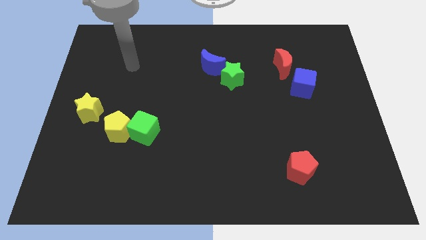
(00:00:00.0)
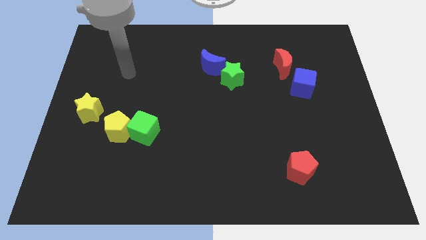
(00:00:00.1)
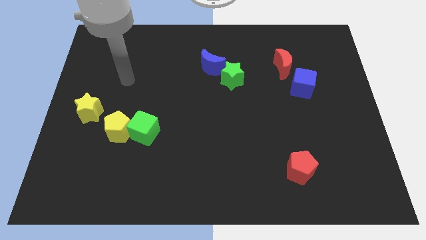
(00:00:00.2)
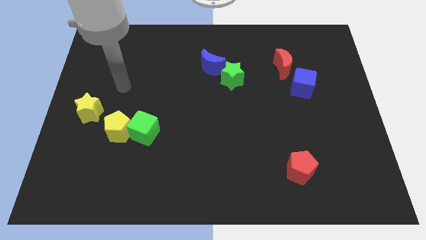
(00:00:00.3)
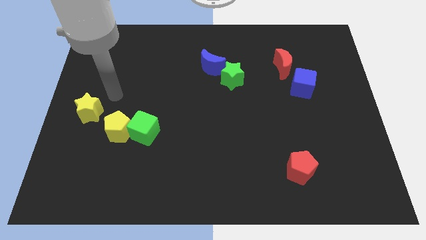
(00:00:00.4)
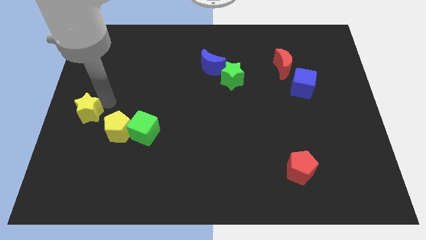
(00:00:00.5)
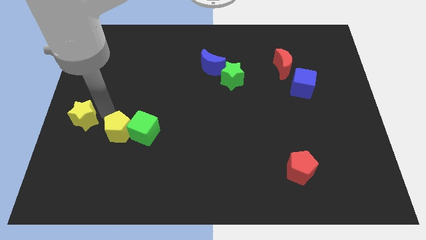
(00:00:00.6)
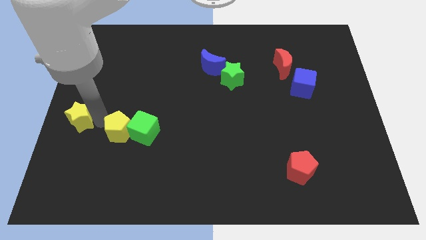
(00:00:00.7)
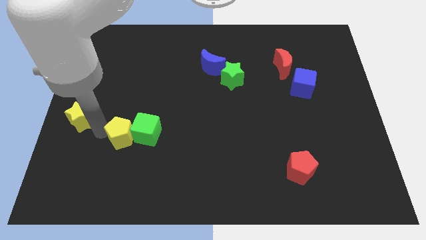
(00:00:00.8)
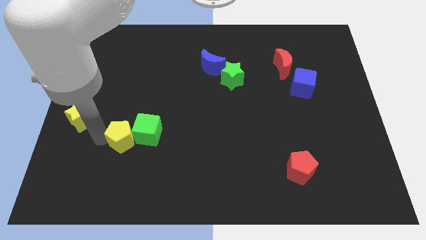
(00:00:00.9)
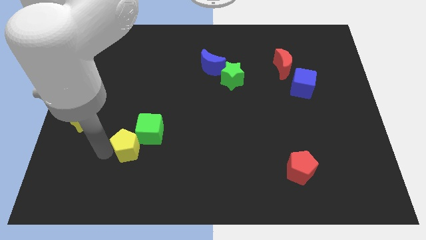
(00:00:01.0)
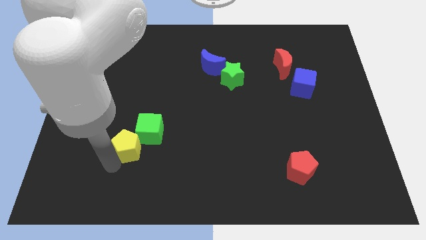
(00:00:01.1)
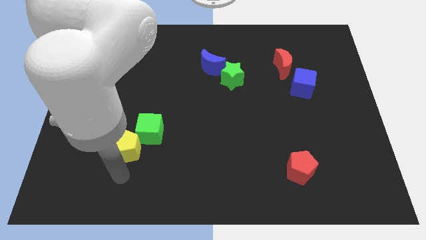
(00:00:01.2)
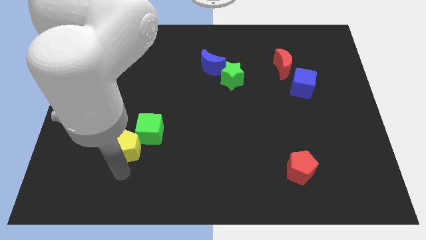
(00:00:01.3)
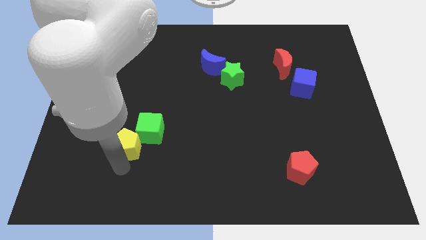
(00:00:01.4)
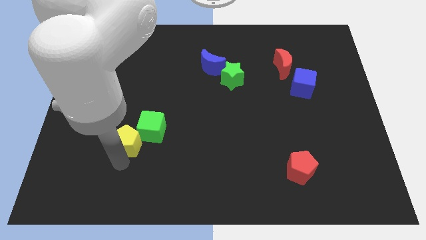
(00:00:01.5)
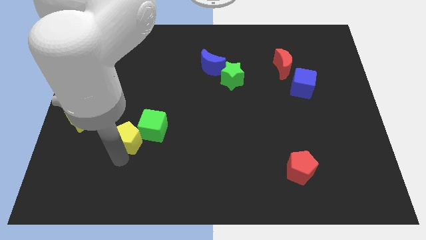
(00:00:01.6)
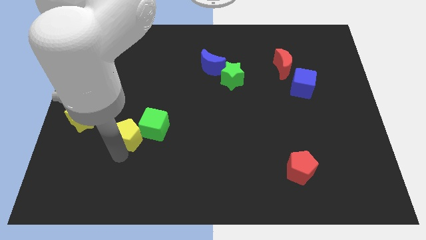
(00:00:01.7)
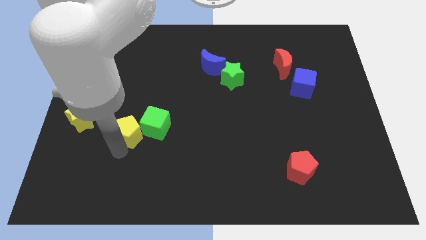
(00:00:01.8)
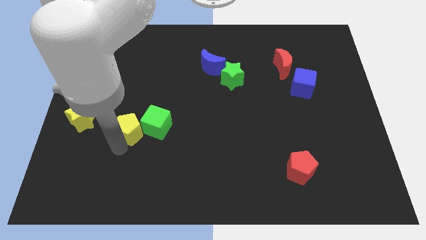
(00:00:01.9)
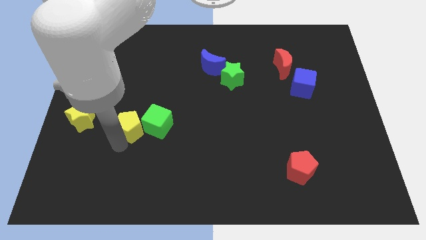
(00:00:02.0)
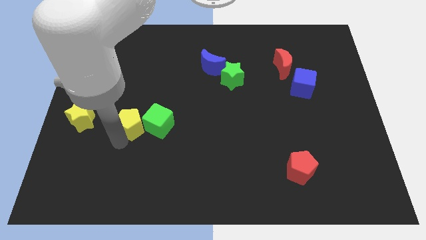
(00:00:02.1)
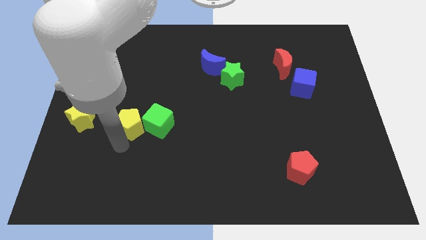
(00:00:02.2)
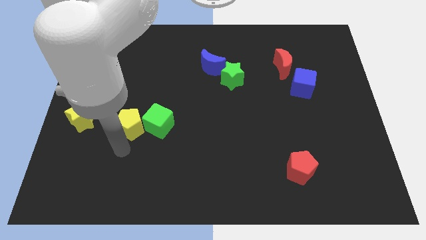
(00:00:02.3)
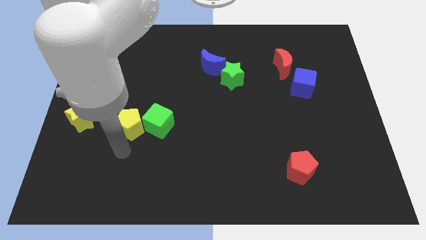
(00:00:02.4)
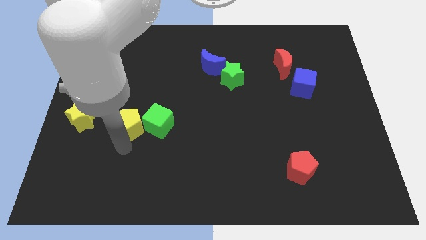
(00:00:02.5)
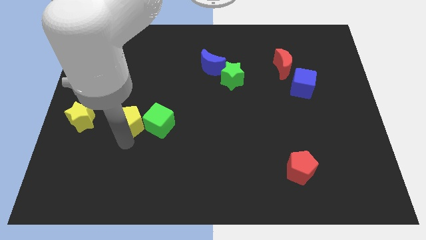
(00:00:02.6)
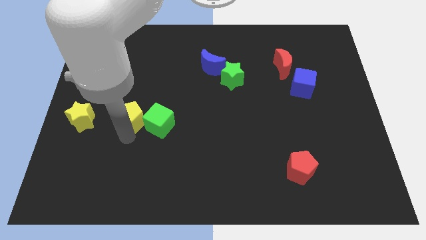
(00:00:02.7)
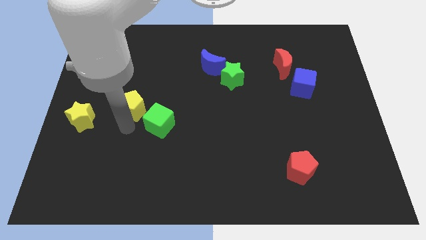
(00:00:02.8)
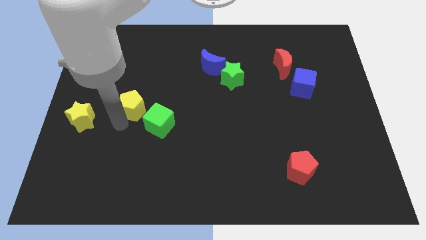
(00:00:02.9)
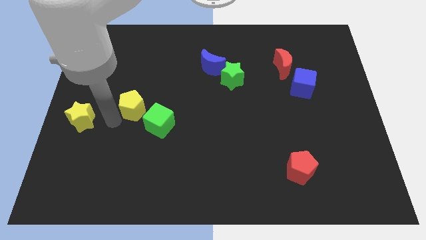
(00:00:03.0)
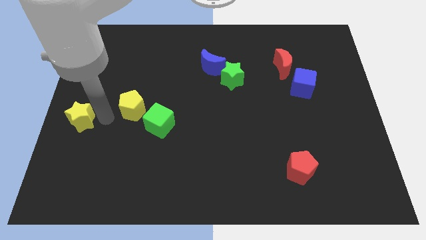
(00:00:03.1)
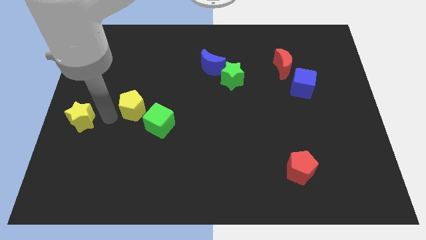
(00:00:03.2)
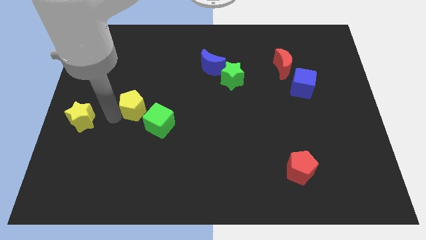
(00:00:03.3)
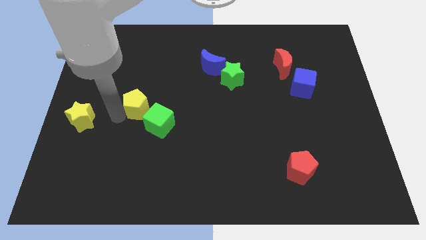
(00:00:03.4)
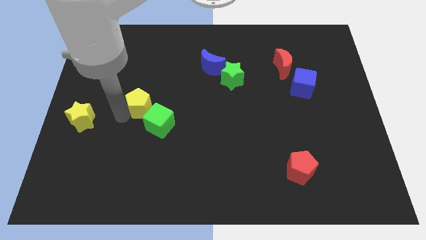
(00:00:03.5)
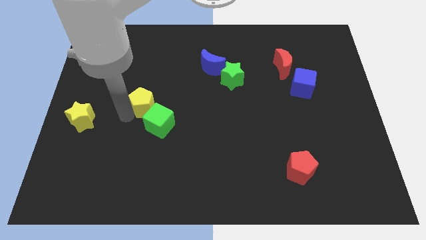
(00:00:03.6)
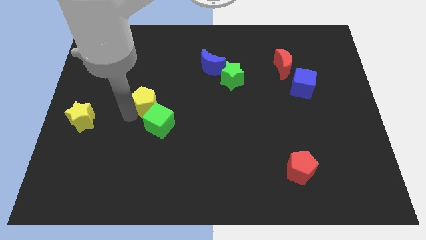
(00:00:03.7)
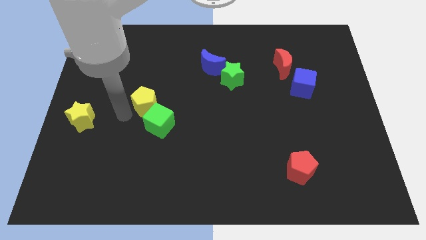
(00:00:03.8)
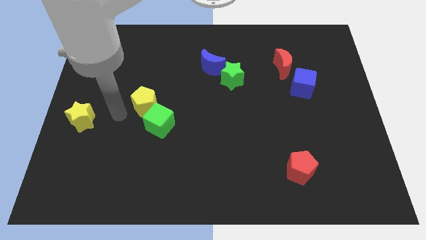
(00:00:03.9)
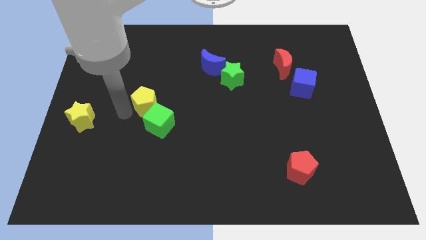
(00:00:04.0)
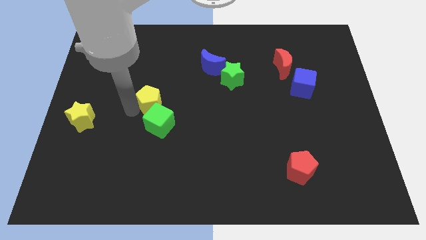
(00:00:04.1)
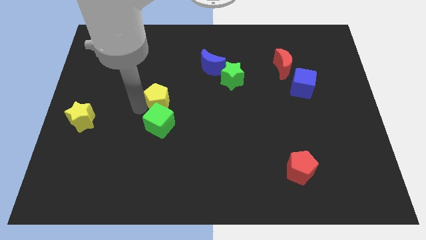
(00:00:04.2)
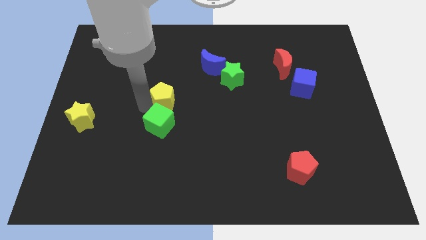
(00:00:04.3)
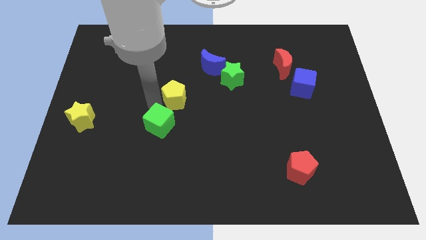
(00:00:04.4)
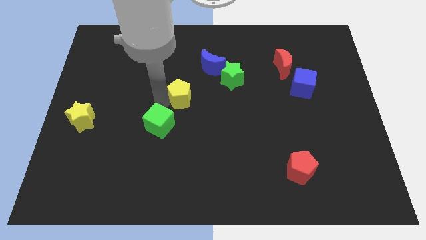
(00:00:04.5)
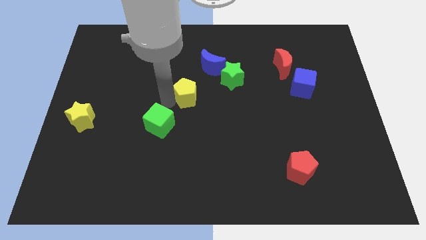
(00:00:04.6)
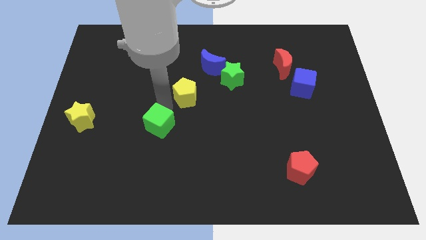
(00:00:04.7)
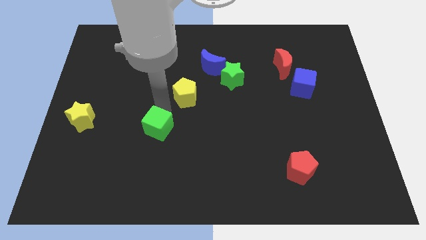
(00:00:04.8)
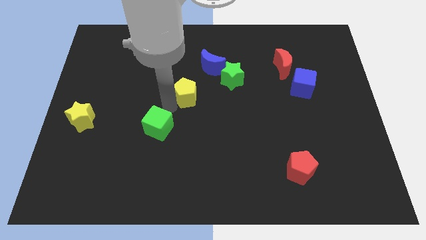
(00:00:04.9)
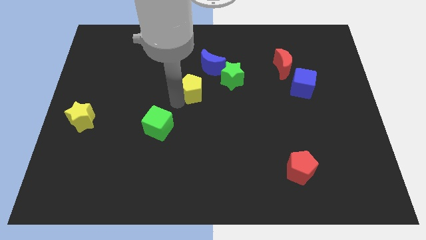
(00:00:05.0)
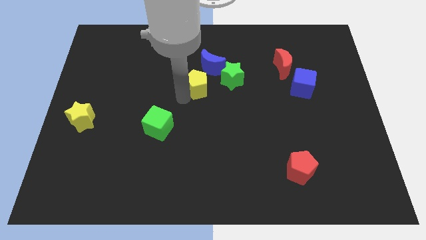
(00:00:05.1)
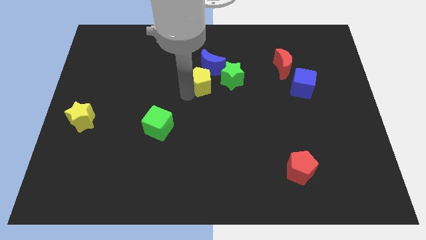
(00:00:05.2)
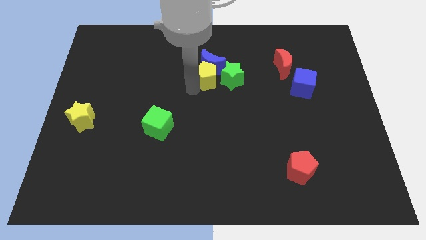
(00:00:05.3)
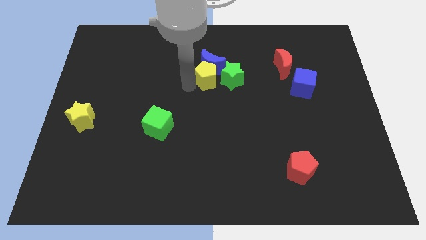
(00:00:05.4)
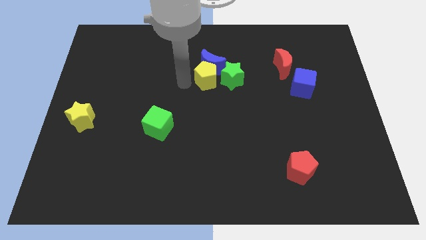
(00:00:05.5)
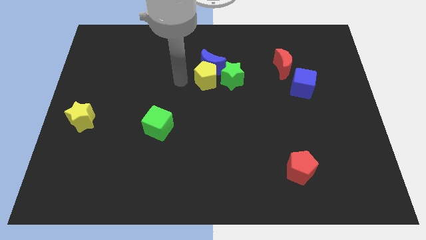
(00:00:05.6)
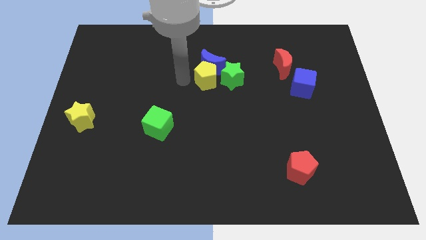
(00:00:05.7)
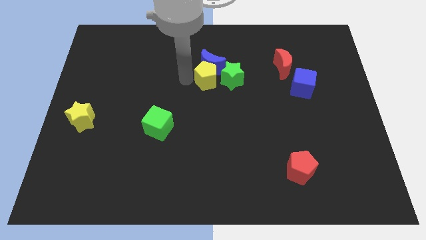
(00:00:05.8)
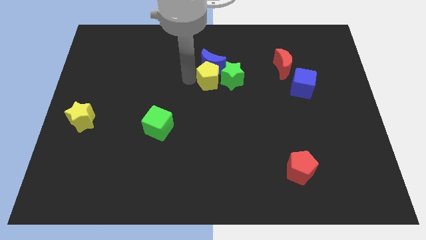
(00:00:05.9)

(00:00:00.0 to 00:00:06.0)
slide the yellow pentagon close to the green star

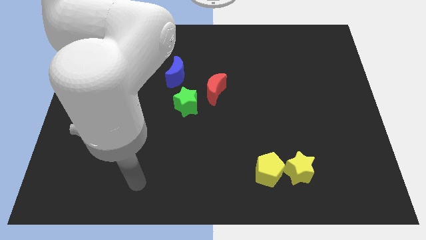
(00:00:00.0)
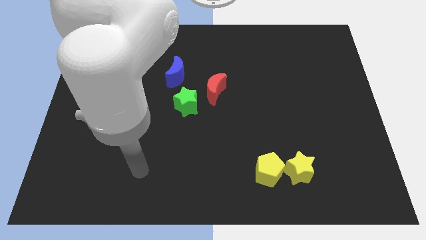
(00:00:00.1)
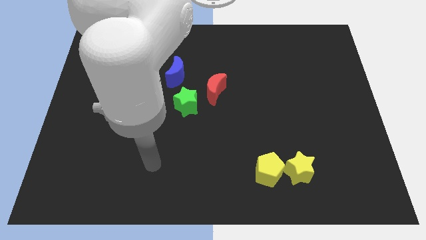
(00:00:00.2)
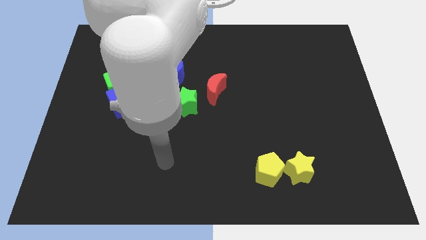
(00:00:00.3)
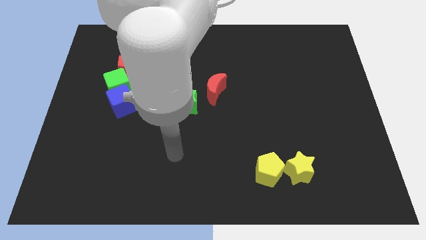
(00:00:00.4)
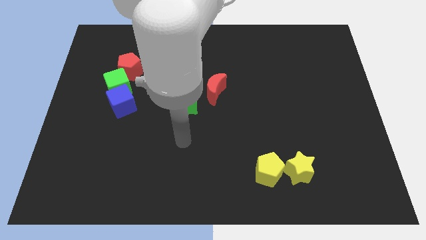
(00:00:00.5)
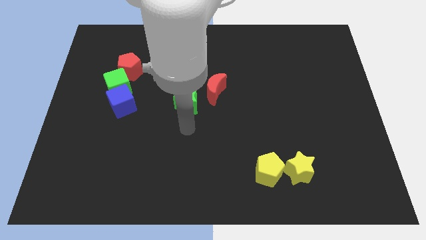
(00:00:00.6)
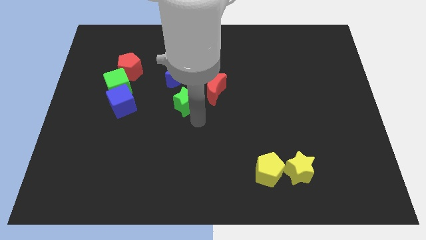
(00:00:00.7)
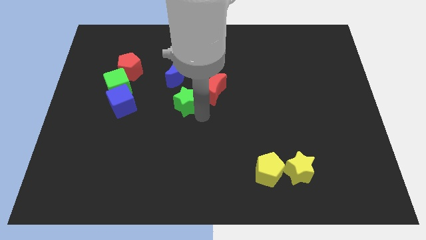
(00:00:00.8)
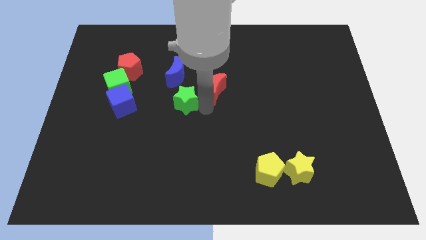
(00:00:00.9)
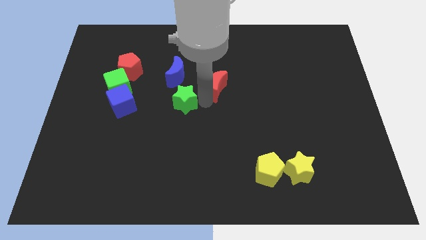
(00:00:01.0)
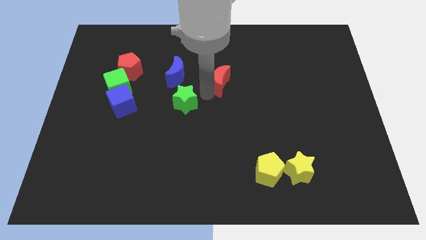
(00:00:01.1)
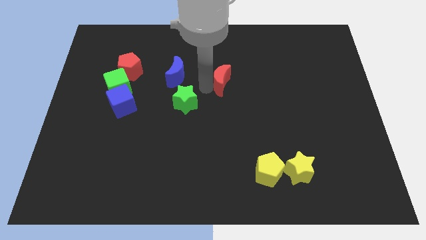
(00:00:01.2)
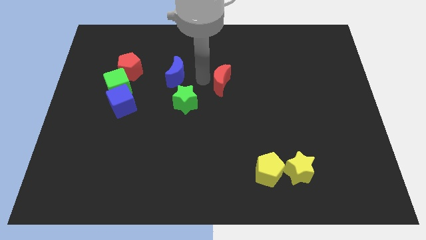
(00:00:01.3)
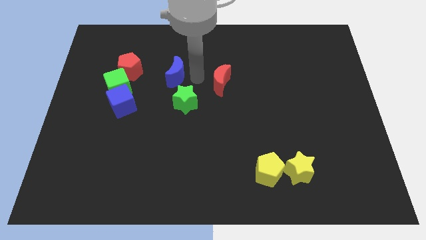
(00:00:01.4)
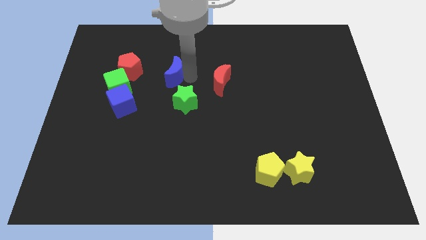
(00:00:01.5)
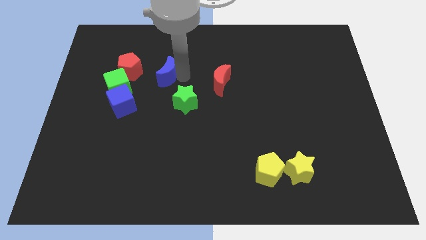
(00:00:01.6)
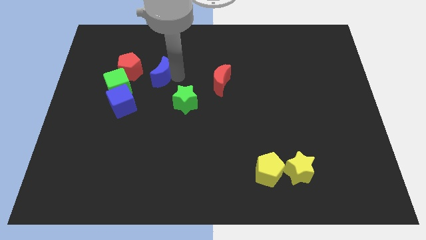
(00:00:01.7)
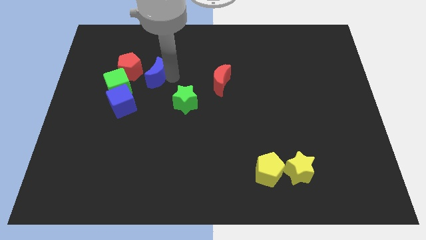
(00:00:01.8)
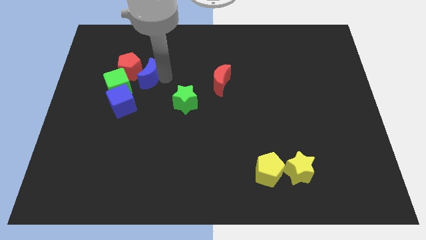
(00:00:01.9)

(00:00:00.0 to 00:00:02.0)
slide the blue moon towards the red pentagon
